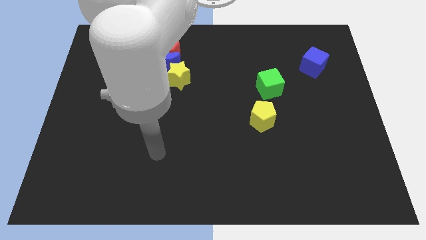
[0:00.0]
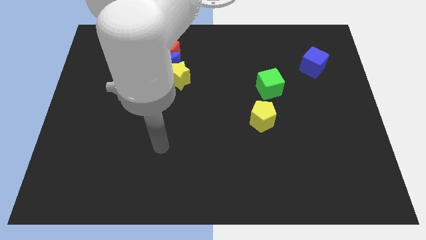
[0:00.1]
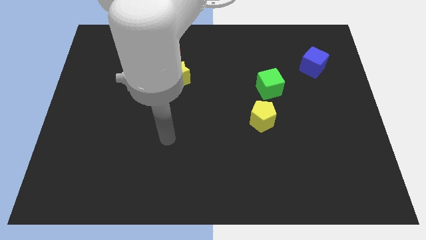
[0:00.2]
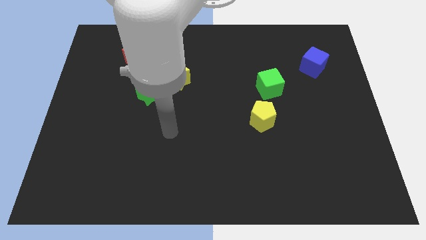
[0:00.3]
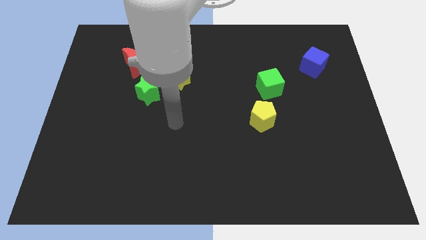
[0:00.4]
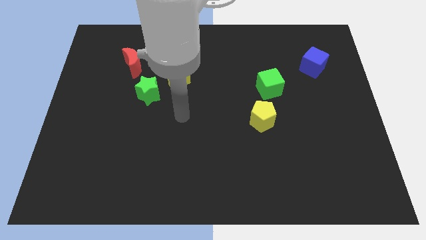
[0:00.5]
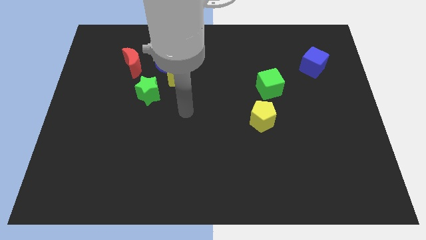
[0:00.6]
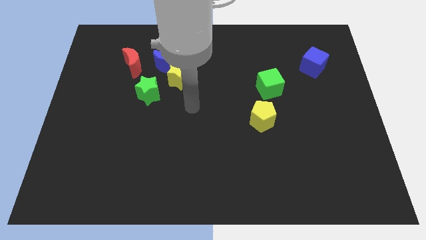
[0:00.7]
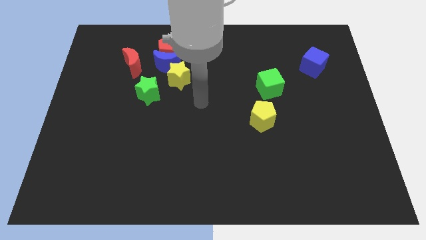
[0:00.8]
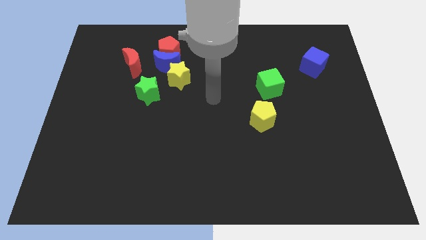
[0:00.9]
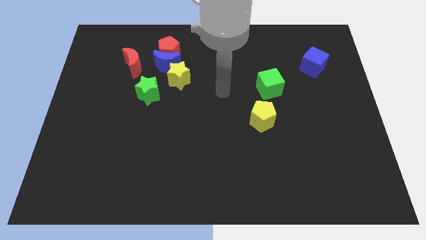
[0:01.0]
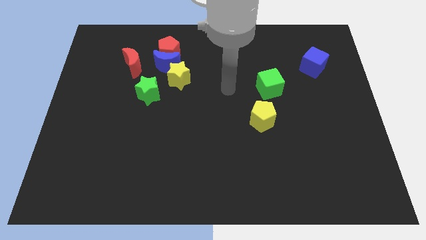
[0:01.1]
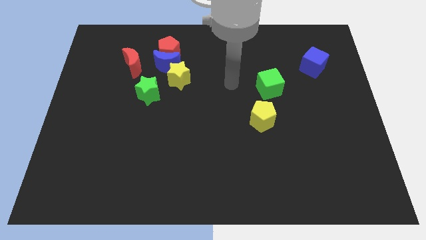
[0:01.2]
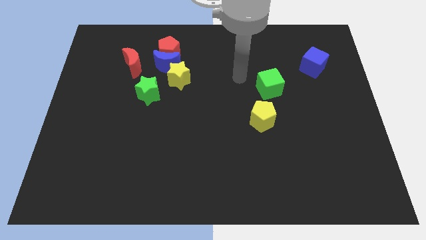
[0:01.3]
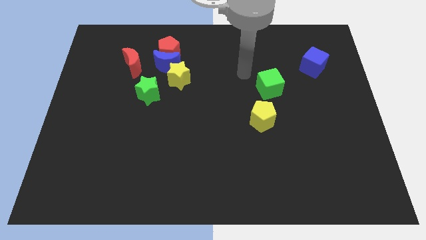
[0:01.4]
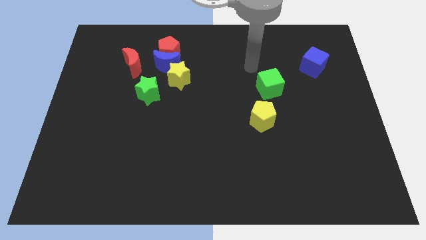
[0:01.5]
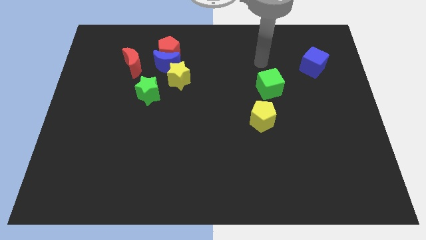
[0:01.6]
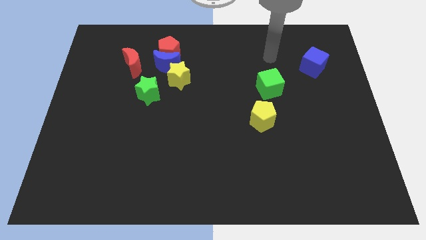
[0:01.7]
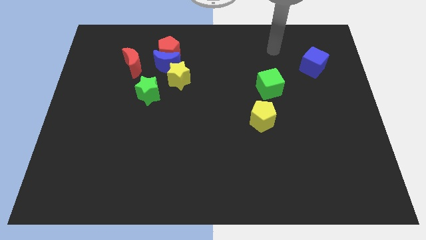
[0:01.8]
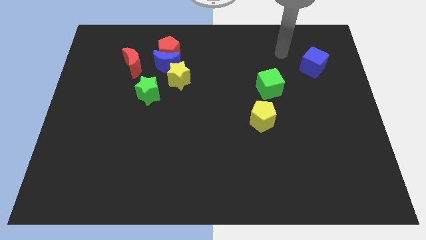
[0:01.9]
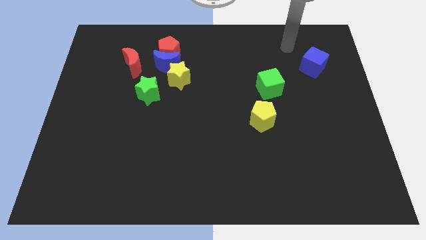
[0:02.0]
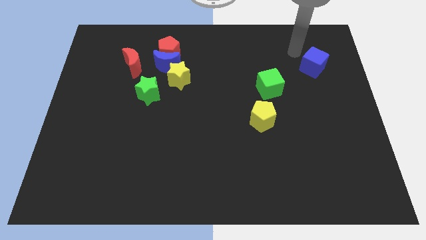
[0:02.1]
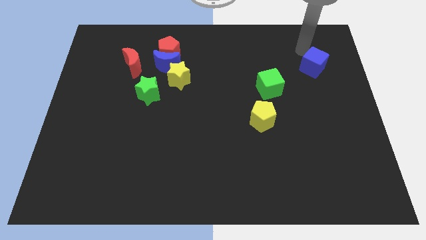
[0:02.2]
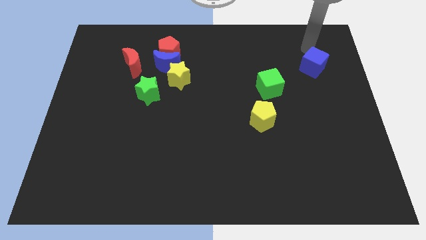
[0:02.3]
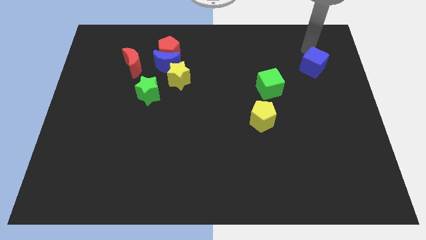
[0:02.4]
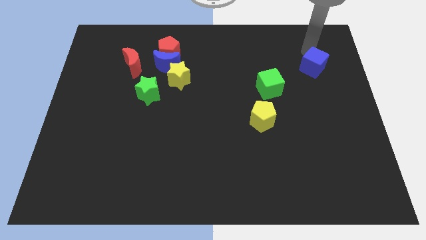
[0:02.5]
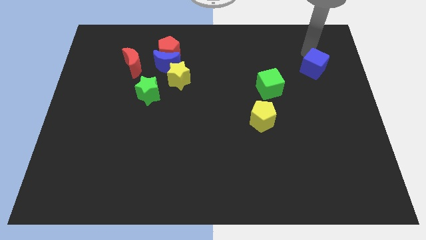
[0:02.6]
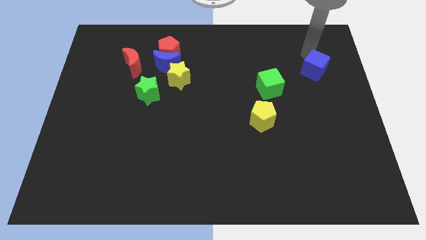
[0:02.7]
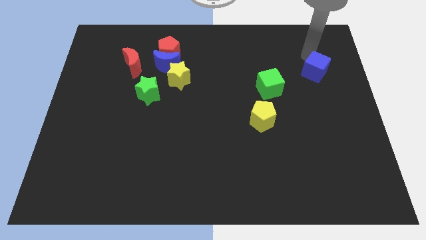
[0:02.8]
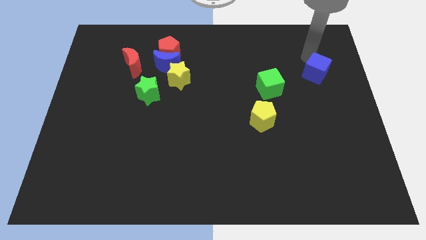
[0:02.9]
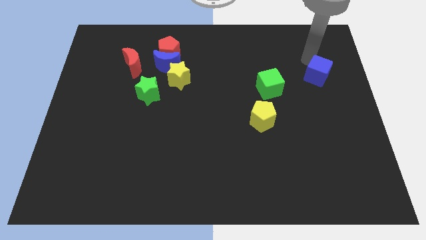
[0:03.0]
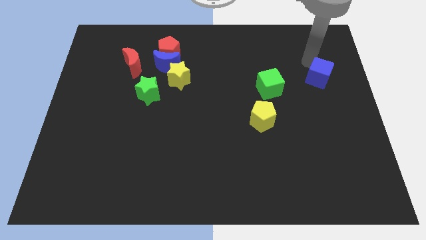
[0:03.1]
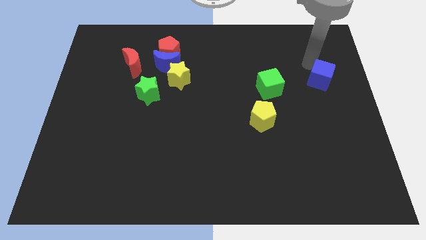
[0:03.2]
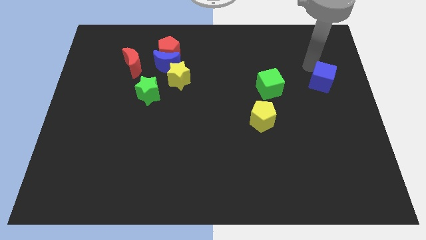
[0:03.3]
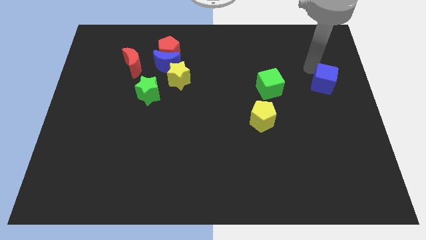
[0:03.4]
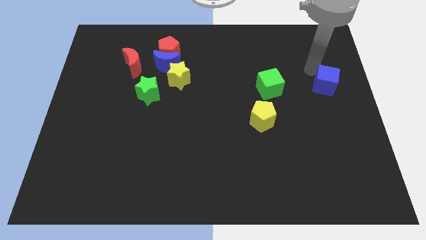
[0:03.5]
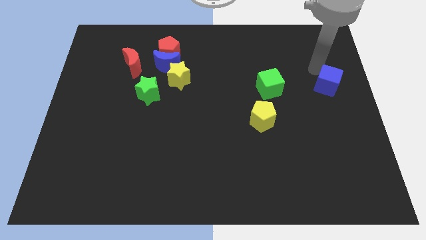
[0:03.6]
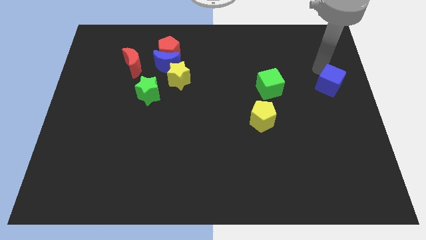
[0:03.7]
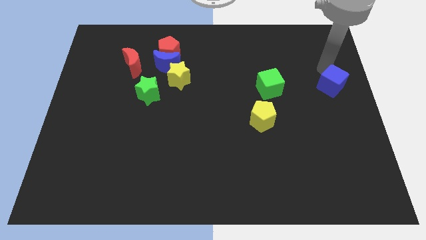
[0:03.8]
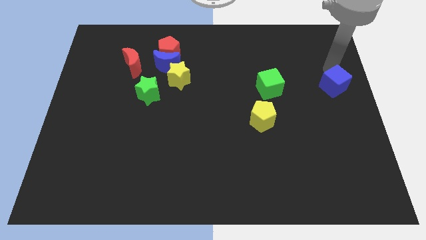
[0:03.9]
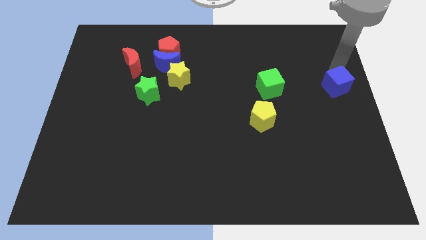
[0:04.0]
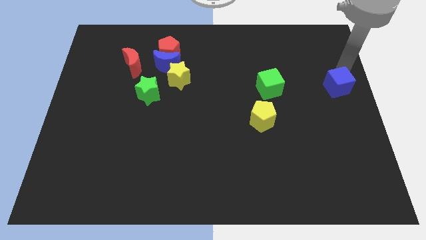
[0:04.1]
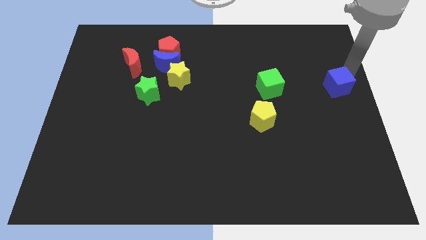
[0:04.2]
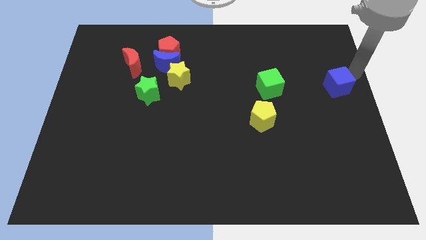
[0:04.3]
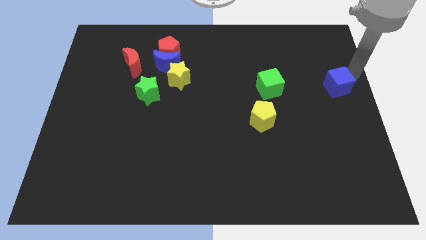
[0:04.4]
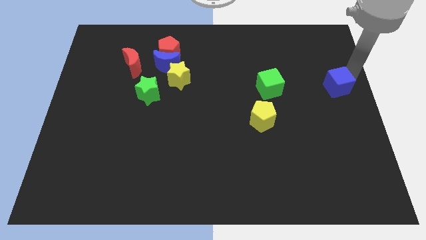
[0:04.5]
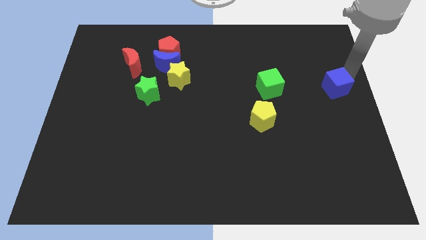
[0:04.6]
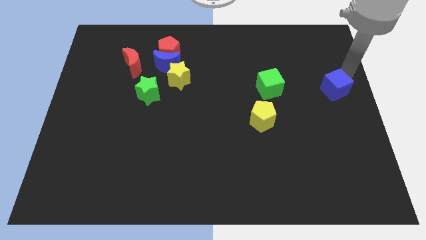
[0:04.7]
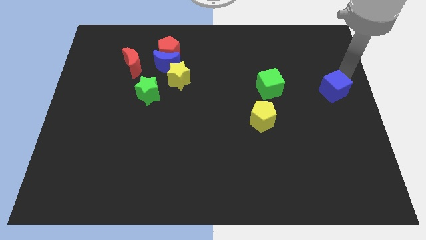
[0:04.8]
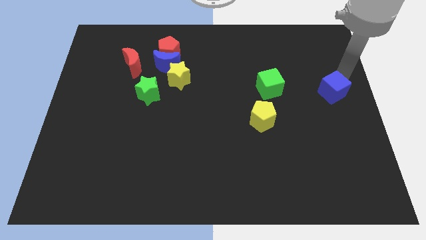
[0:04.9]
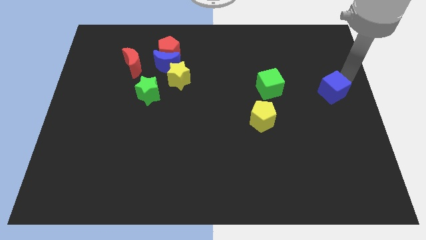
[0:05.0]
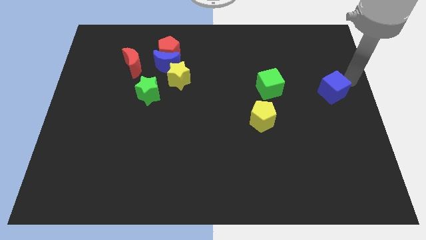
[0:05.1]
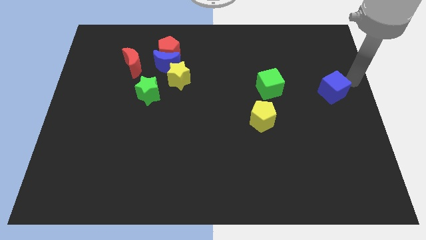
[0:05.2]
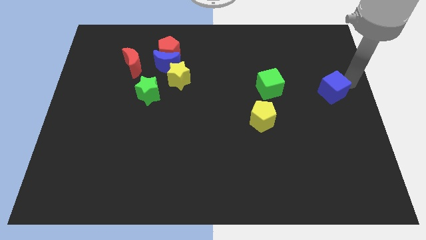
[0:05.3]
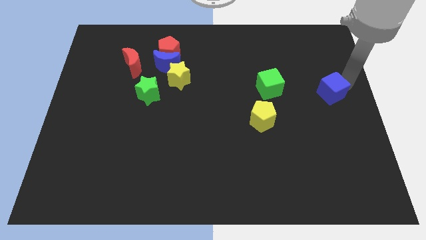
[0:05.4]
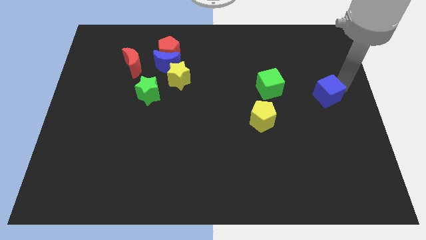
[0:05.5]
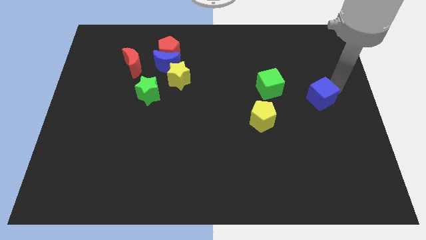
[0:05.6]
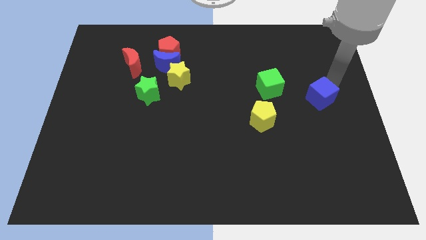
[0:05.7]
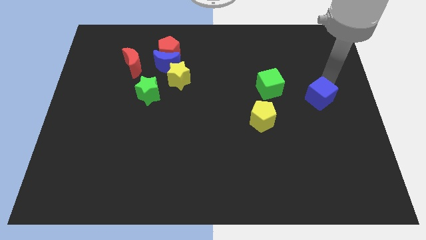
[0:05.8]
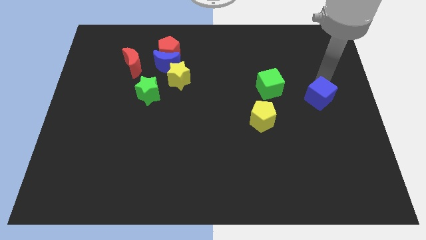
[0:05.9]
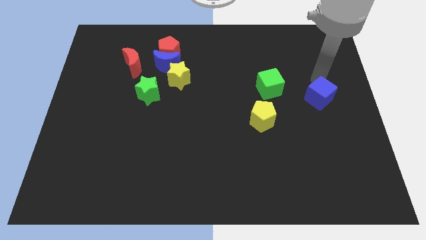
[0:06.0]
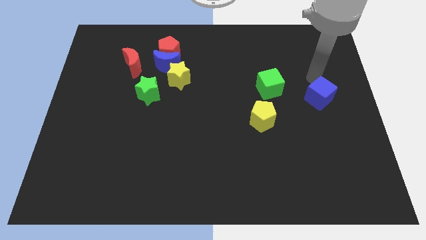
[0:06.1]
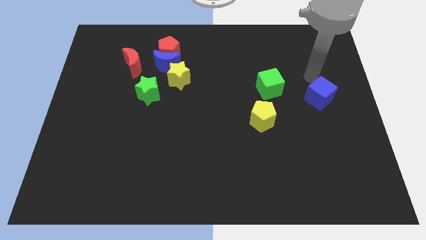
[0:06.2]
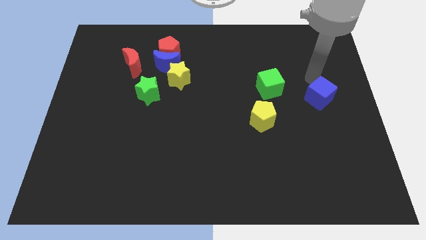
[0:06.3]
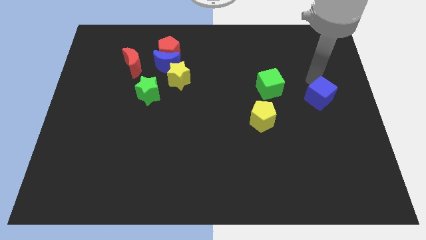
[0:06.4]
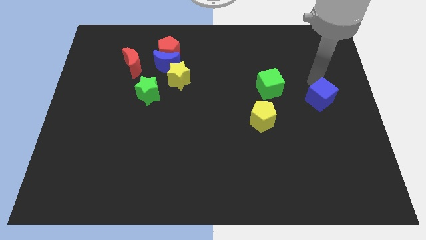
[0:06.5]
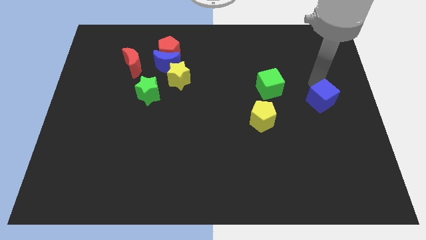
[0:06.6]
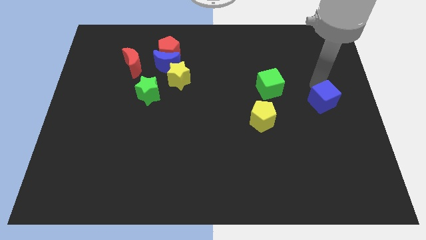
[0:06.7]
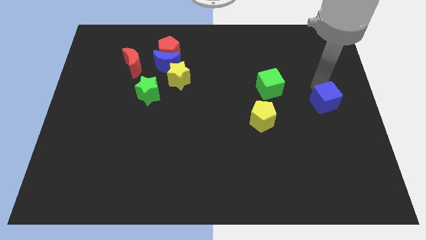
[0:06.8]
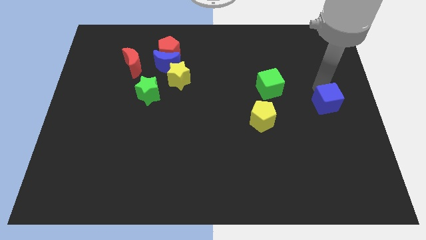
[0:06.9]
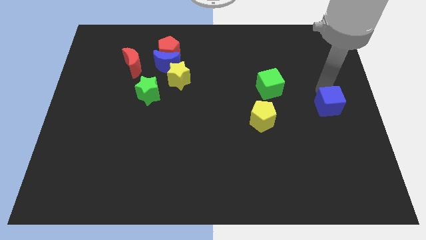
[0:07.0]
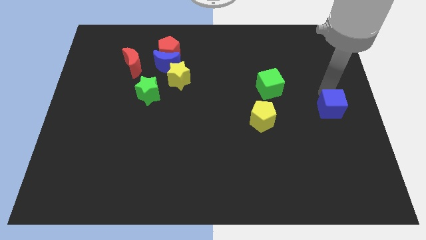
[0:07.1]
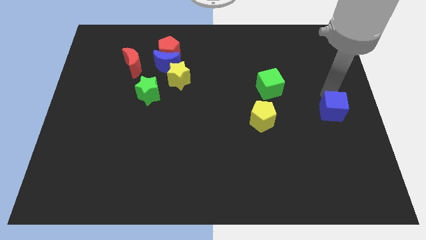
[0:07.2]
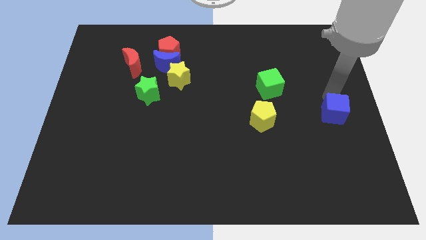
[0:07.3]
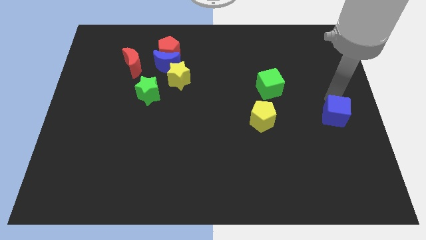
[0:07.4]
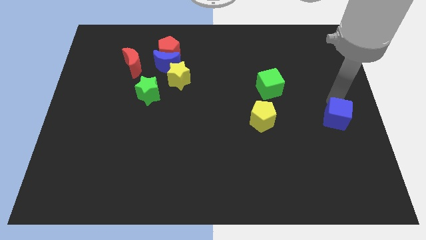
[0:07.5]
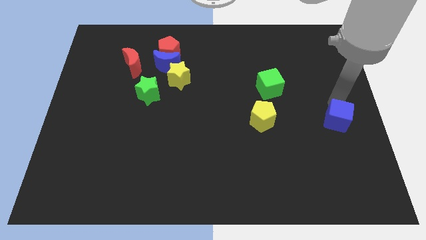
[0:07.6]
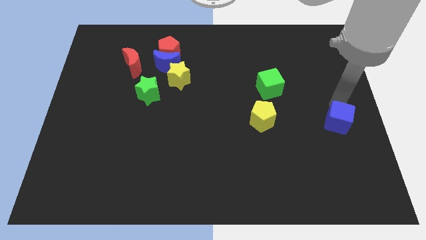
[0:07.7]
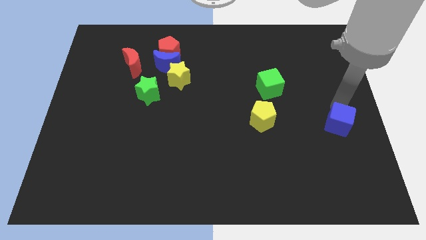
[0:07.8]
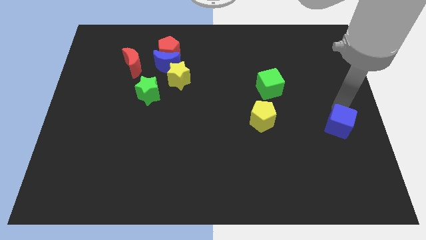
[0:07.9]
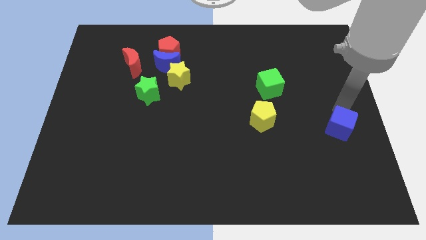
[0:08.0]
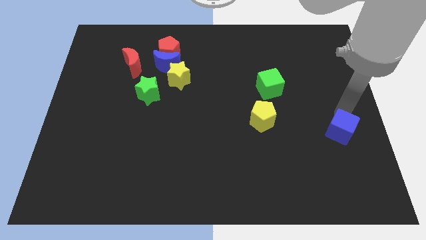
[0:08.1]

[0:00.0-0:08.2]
move the blue cube downwards
